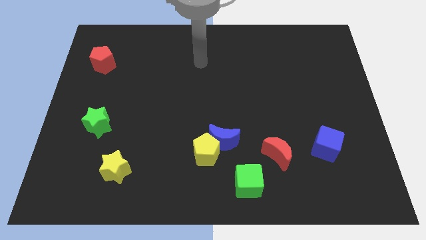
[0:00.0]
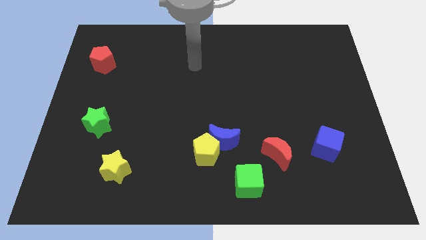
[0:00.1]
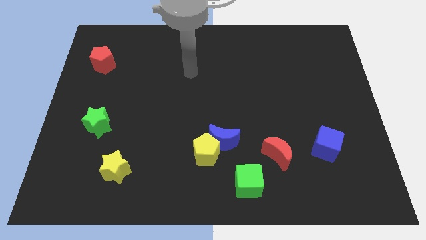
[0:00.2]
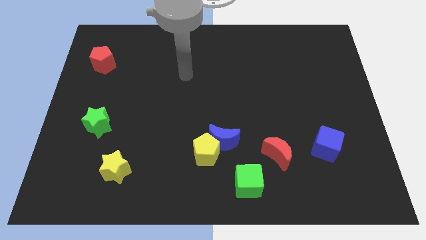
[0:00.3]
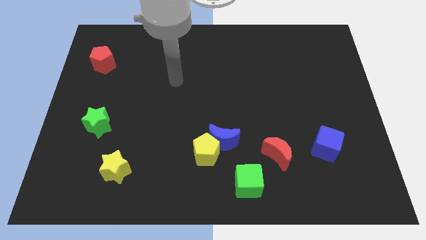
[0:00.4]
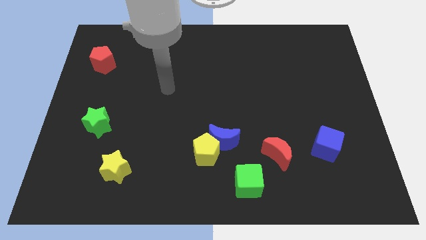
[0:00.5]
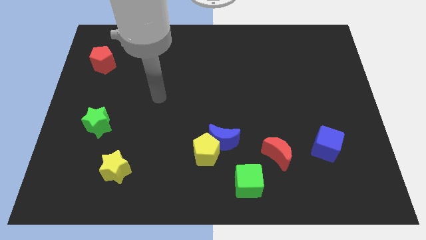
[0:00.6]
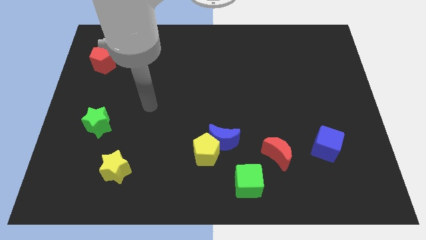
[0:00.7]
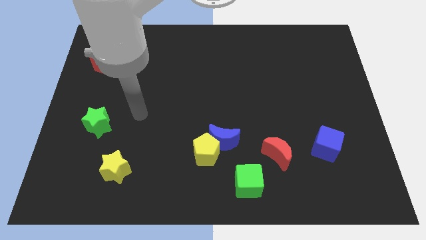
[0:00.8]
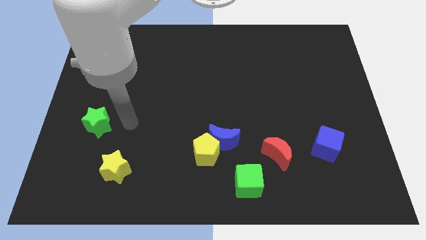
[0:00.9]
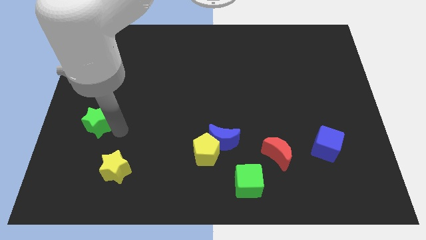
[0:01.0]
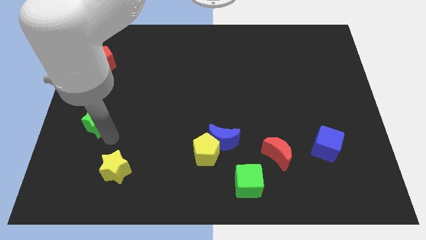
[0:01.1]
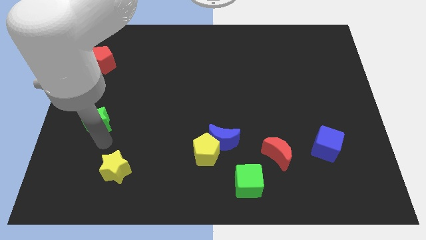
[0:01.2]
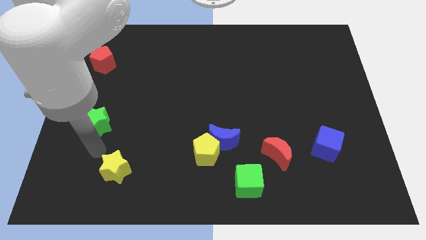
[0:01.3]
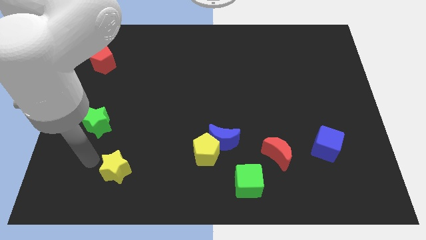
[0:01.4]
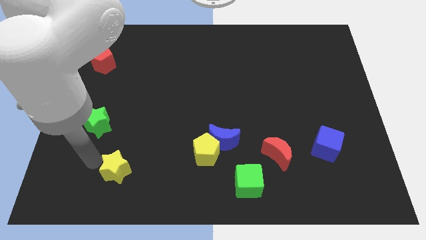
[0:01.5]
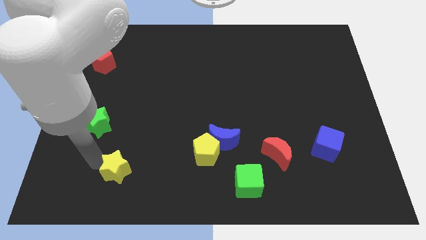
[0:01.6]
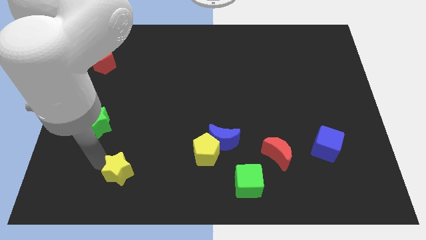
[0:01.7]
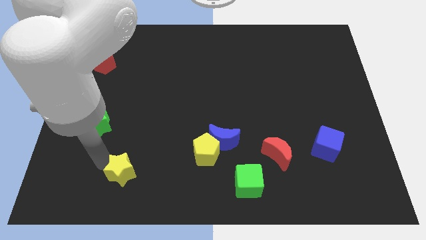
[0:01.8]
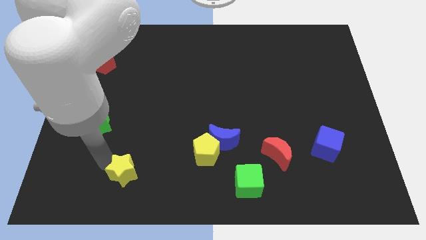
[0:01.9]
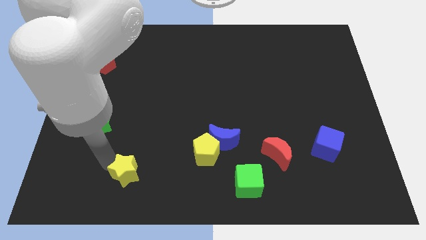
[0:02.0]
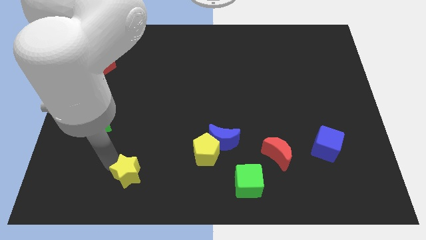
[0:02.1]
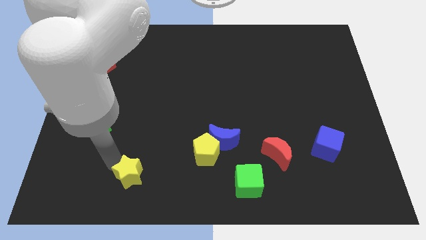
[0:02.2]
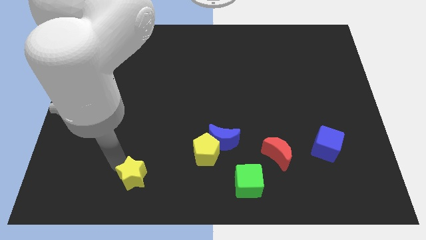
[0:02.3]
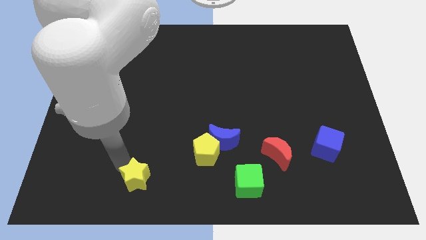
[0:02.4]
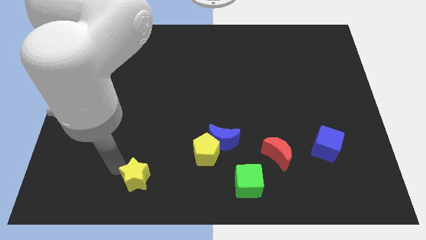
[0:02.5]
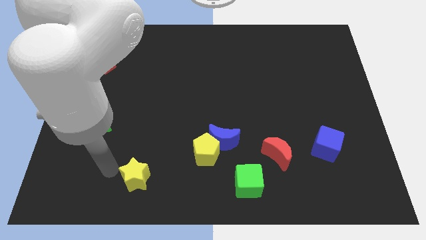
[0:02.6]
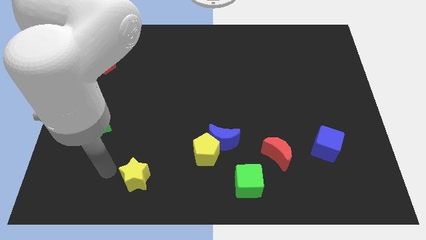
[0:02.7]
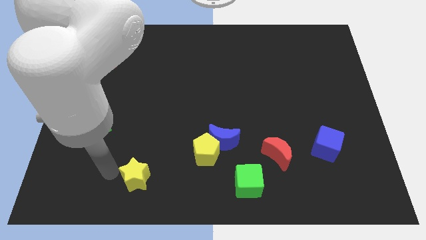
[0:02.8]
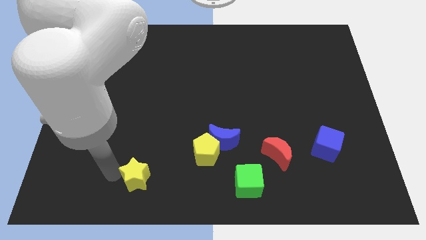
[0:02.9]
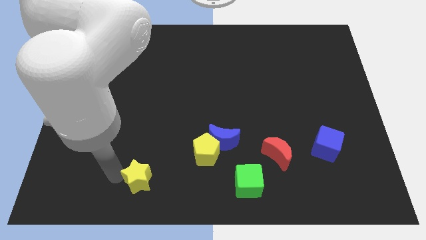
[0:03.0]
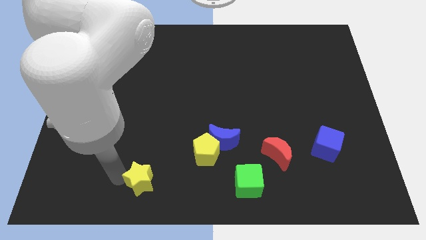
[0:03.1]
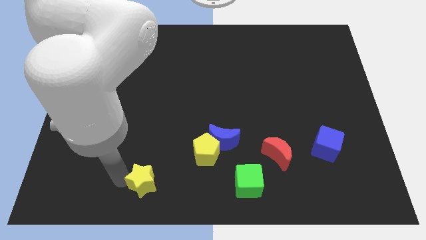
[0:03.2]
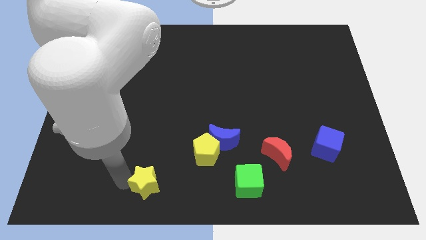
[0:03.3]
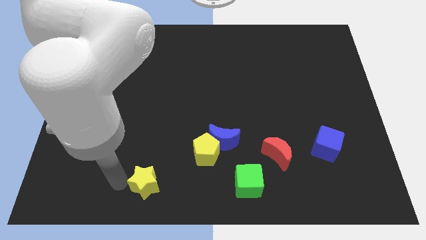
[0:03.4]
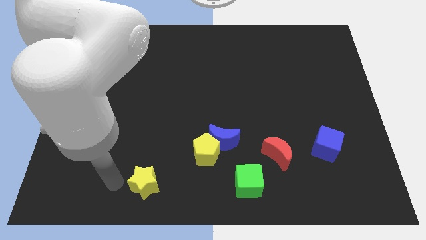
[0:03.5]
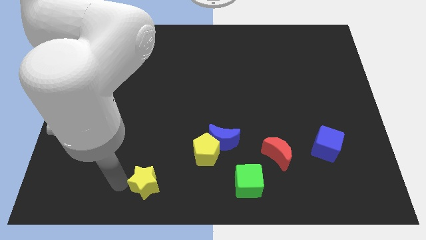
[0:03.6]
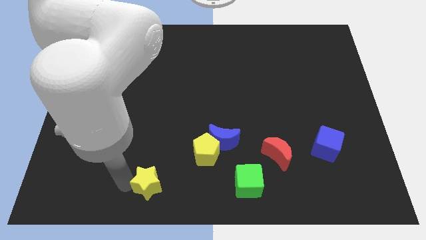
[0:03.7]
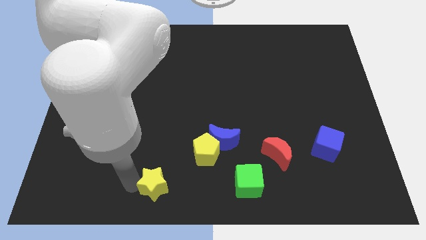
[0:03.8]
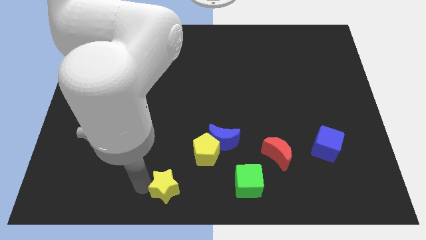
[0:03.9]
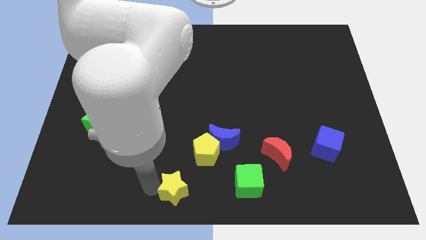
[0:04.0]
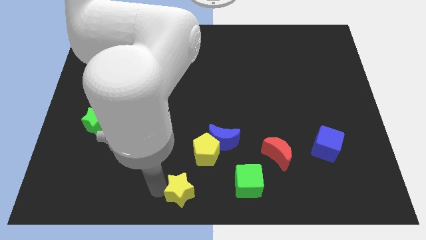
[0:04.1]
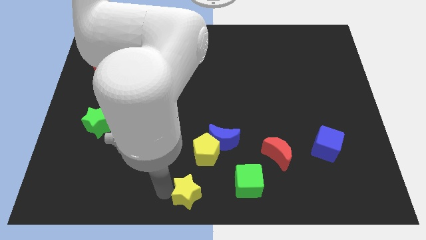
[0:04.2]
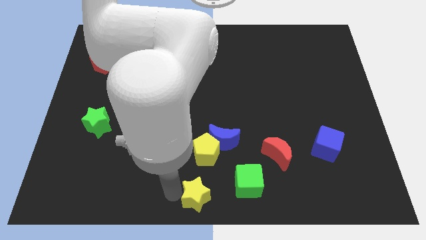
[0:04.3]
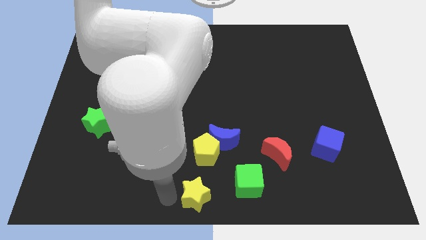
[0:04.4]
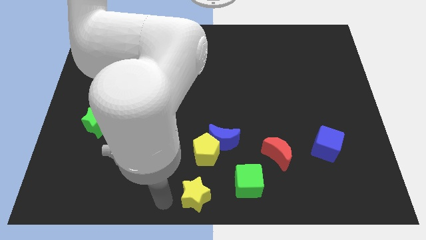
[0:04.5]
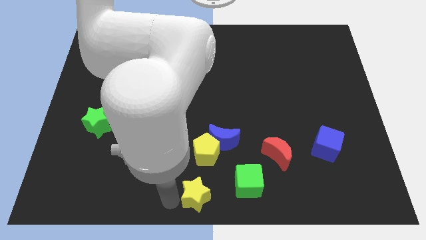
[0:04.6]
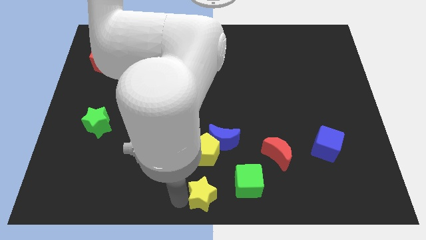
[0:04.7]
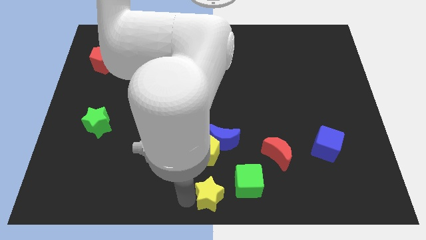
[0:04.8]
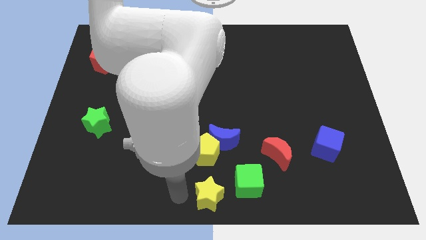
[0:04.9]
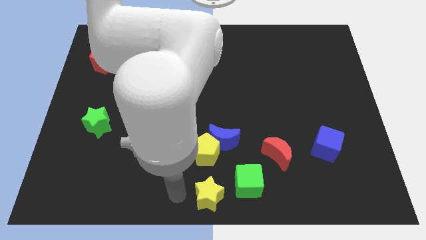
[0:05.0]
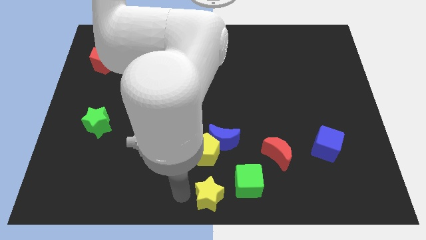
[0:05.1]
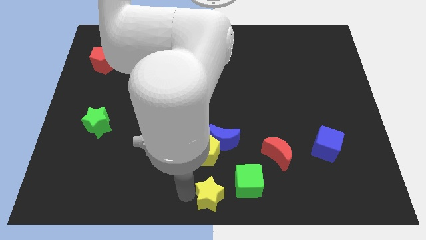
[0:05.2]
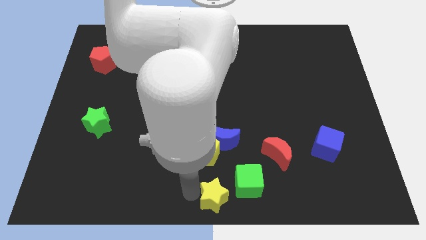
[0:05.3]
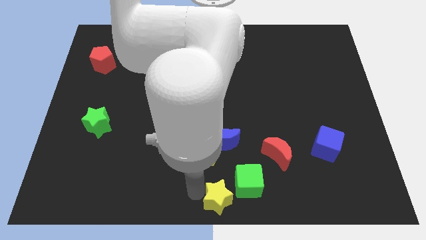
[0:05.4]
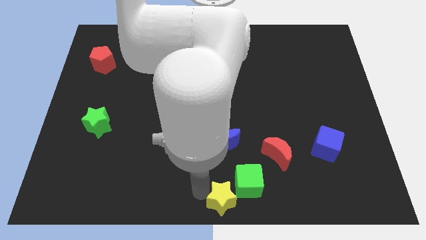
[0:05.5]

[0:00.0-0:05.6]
push the yellow star to the right

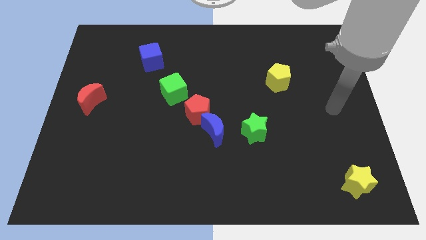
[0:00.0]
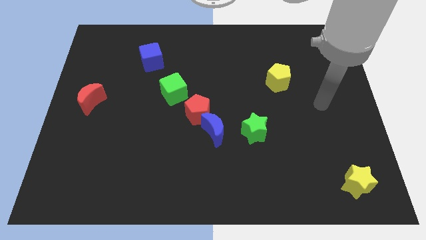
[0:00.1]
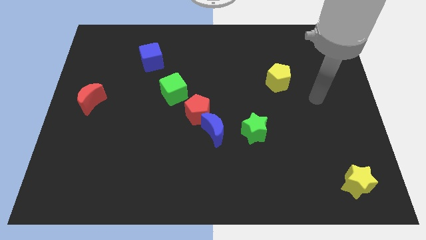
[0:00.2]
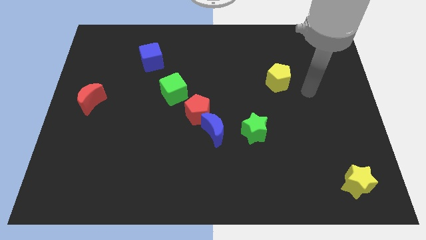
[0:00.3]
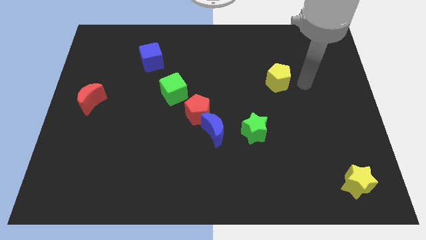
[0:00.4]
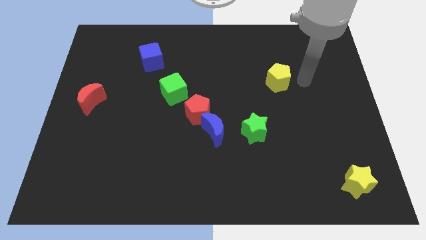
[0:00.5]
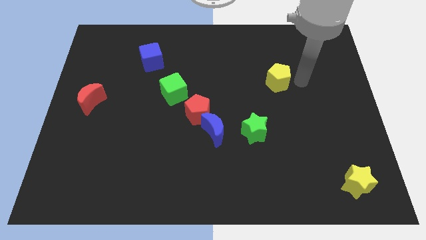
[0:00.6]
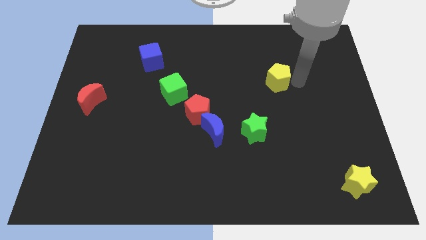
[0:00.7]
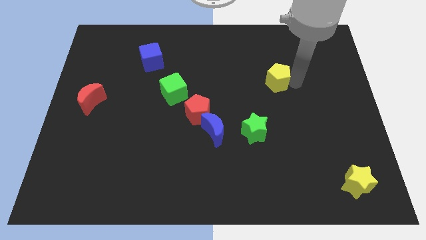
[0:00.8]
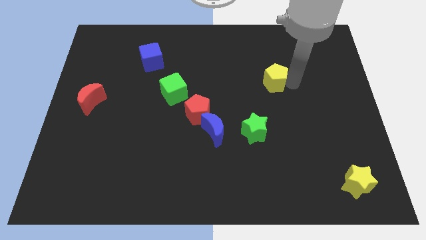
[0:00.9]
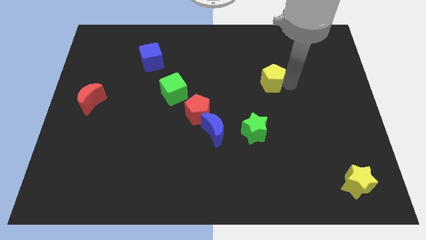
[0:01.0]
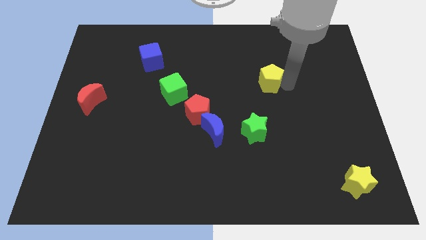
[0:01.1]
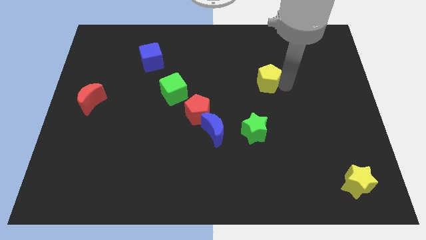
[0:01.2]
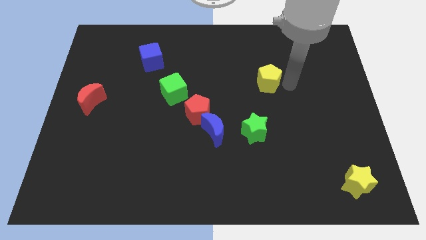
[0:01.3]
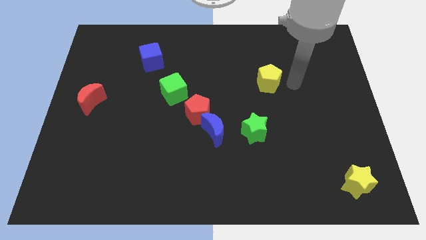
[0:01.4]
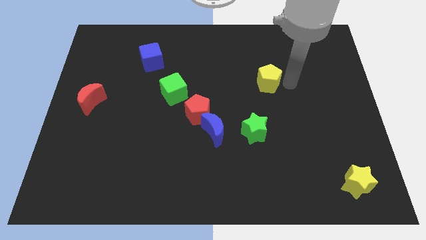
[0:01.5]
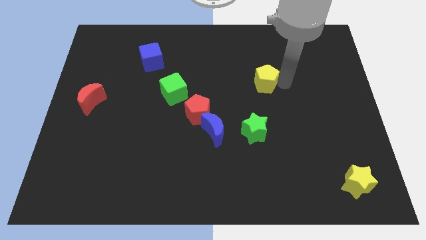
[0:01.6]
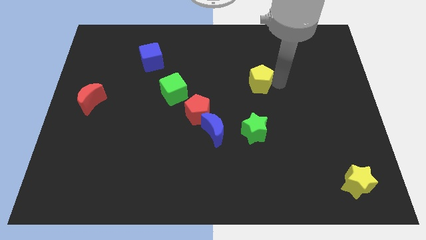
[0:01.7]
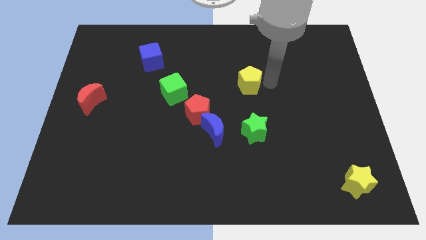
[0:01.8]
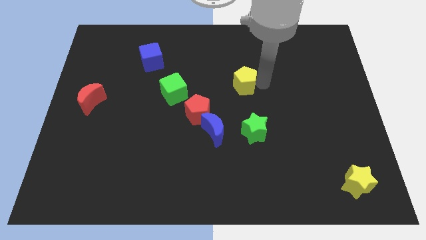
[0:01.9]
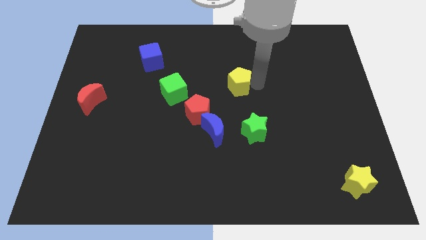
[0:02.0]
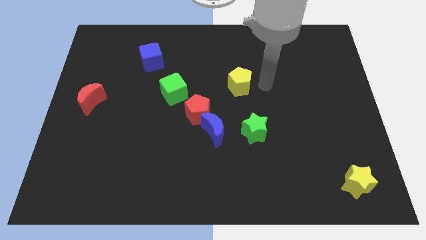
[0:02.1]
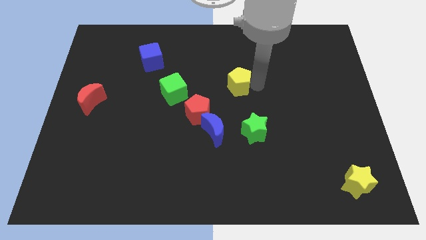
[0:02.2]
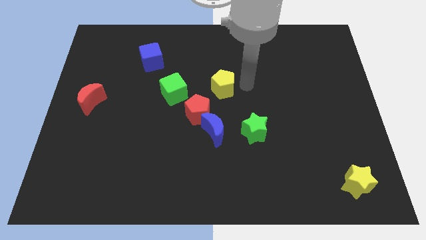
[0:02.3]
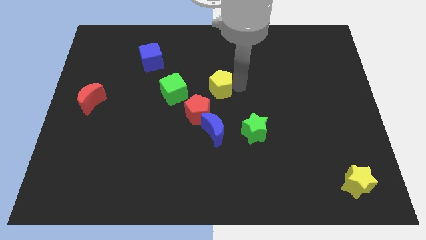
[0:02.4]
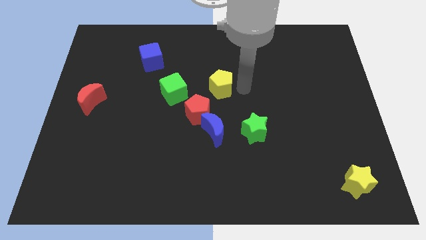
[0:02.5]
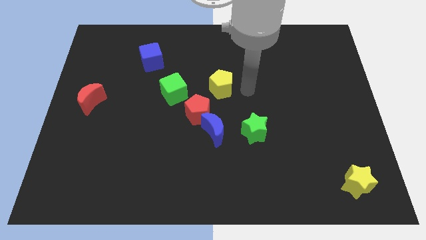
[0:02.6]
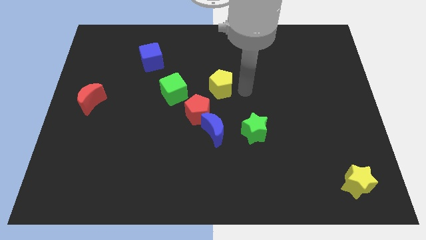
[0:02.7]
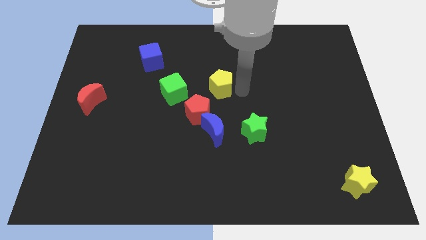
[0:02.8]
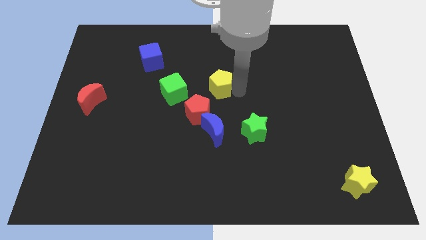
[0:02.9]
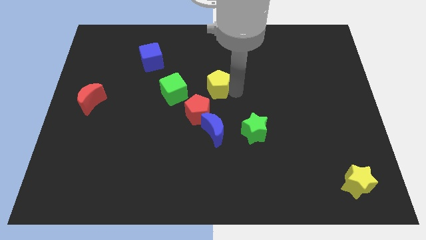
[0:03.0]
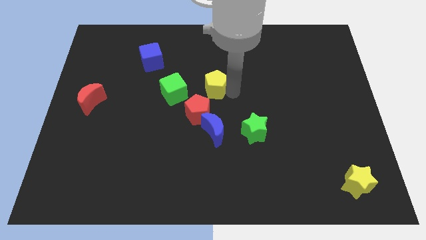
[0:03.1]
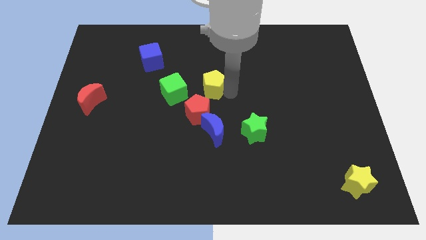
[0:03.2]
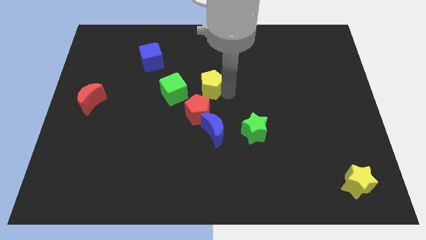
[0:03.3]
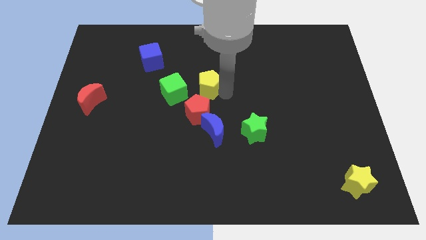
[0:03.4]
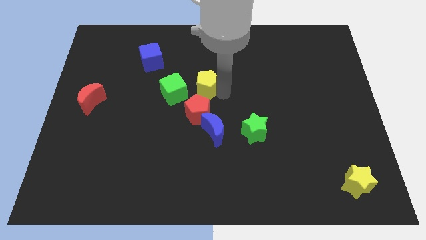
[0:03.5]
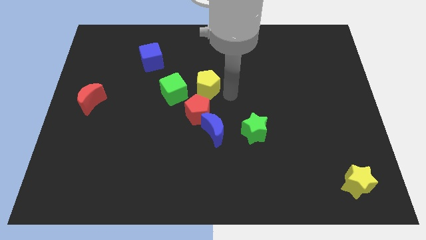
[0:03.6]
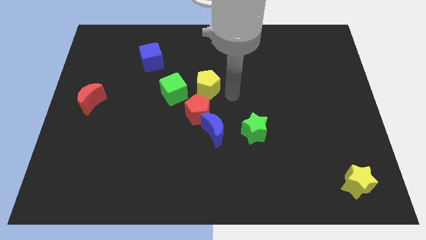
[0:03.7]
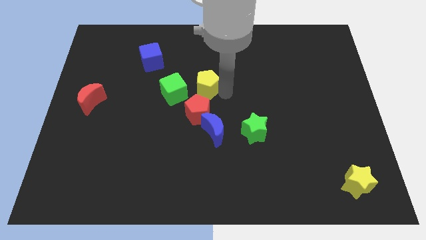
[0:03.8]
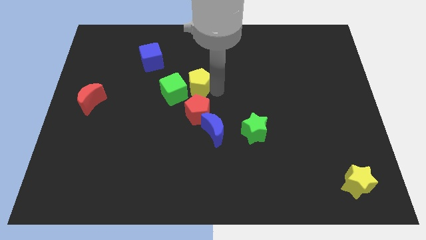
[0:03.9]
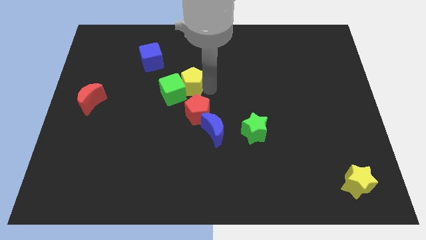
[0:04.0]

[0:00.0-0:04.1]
slide the yellow pentagon to the left
